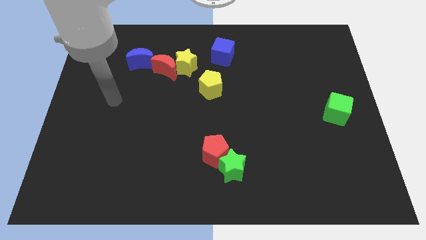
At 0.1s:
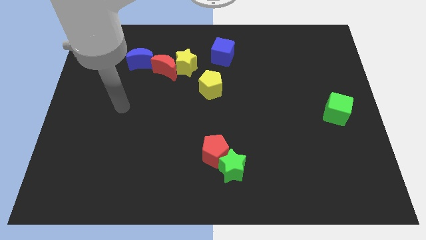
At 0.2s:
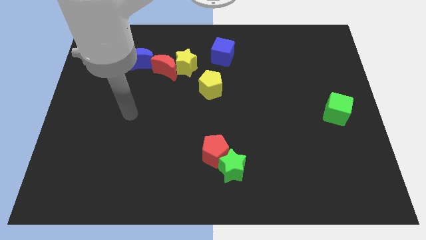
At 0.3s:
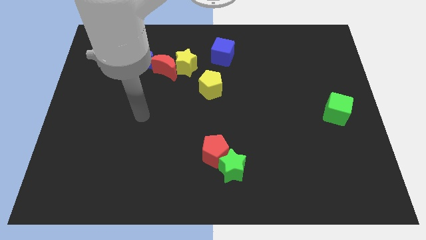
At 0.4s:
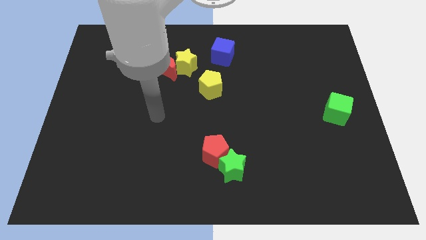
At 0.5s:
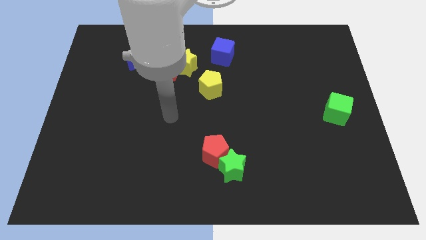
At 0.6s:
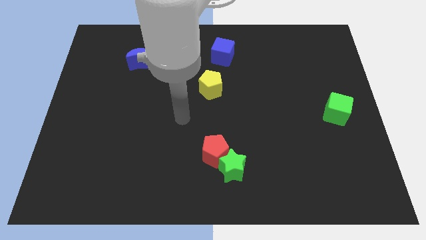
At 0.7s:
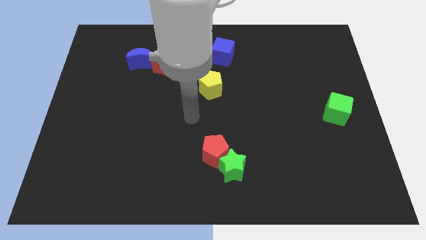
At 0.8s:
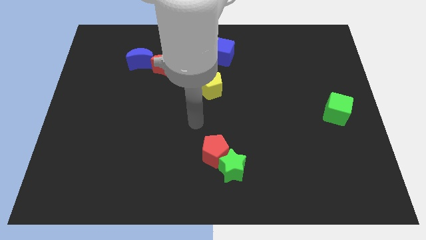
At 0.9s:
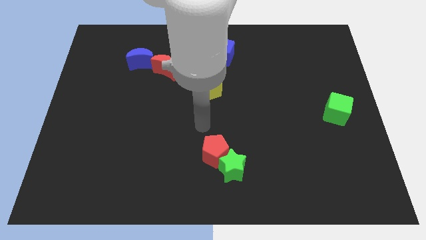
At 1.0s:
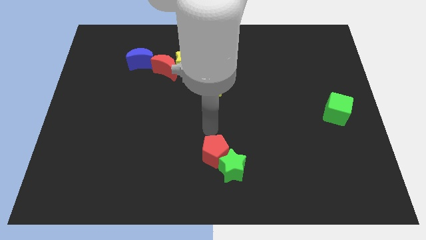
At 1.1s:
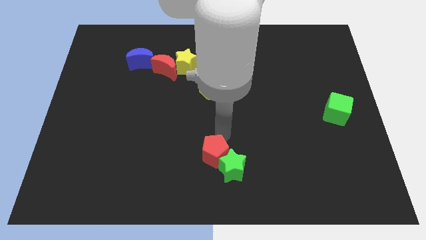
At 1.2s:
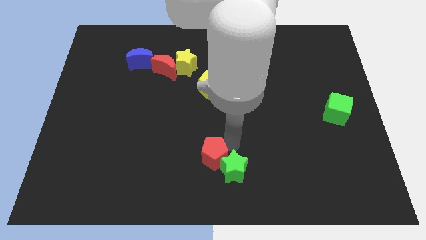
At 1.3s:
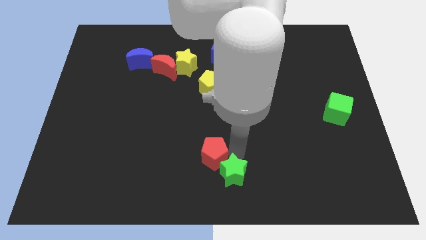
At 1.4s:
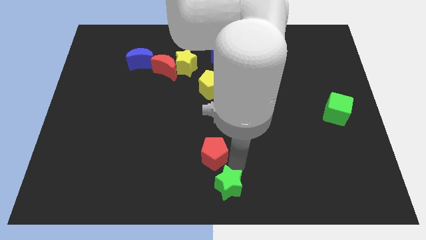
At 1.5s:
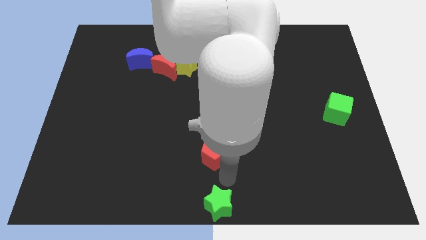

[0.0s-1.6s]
pull the red pentagon apart from the green star

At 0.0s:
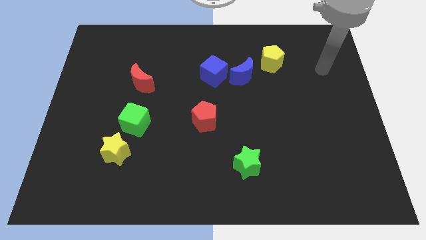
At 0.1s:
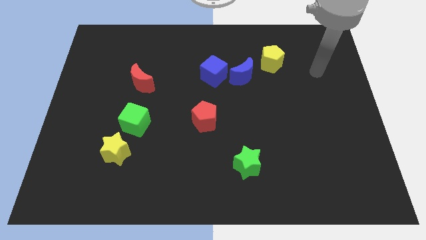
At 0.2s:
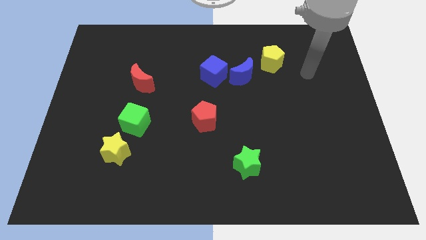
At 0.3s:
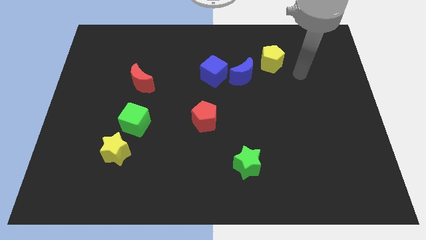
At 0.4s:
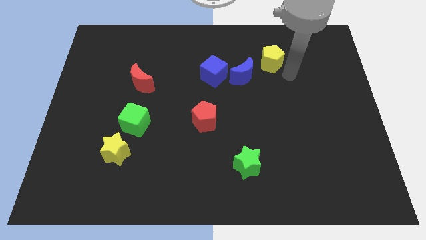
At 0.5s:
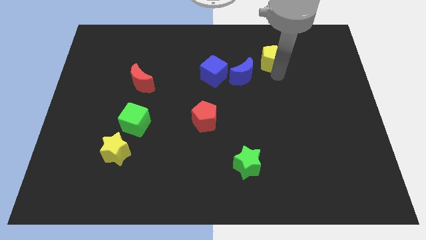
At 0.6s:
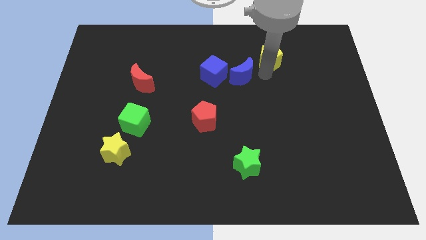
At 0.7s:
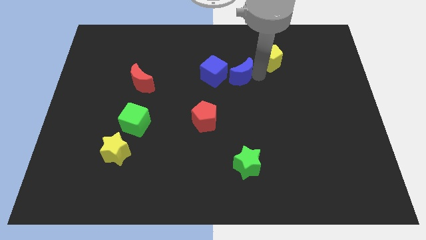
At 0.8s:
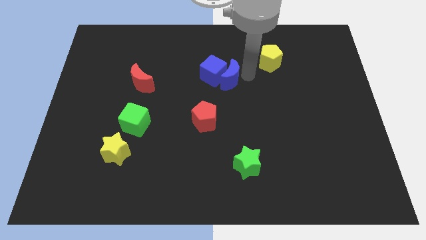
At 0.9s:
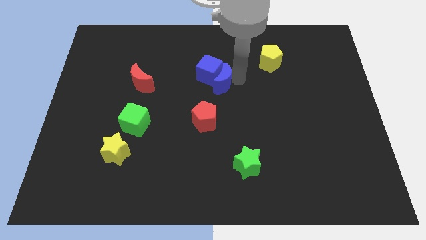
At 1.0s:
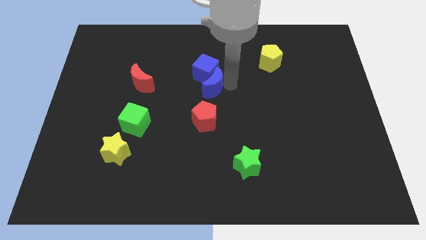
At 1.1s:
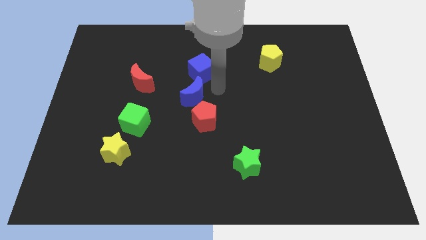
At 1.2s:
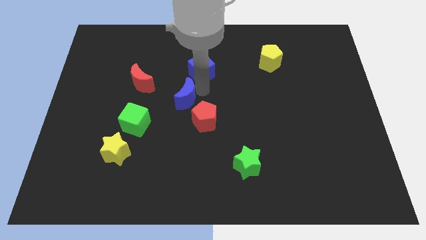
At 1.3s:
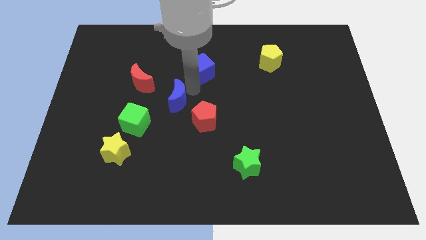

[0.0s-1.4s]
move the blue cube away from the blue moon

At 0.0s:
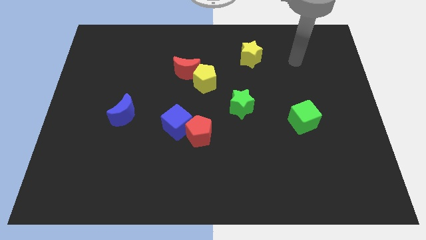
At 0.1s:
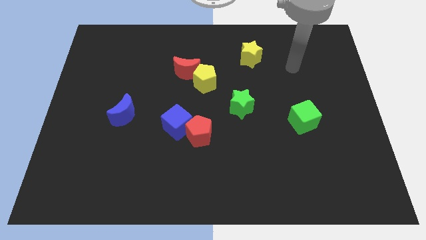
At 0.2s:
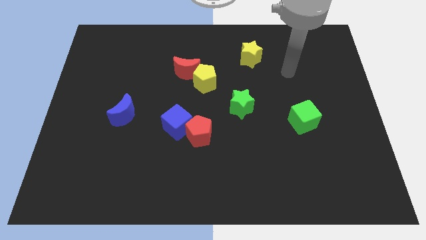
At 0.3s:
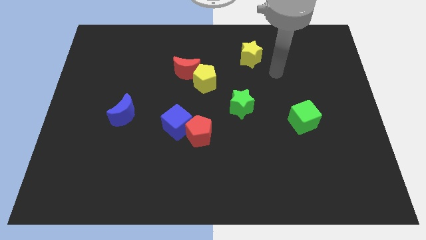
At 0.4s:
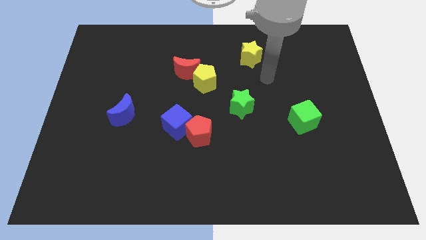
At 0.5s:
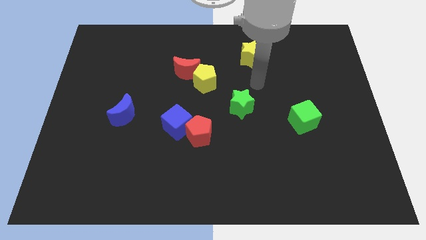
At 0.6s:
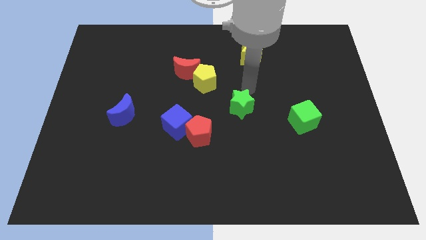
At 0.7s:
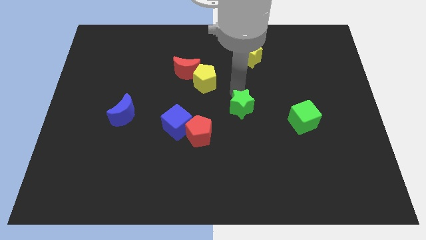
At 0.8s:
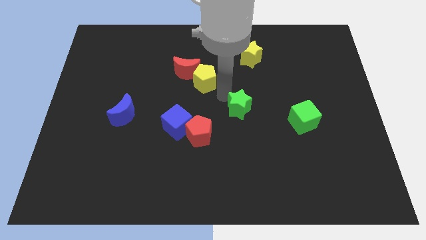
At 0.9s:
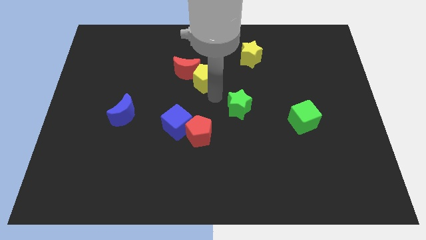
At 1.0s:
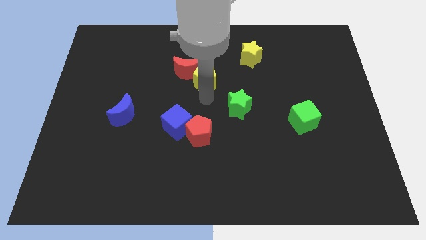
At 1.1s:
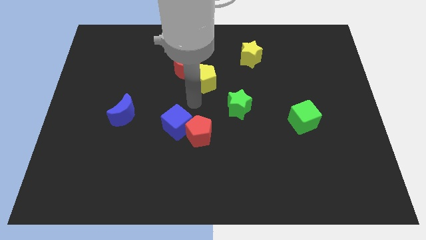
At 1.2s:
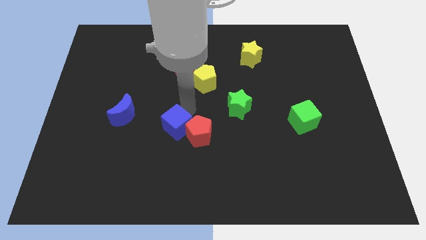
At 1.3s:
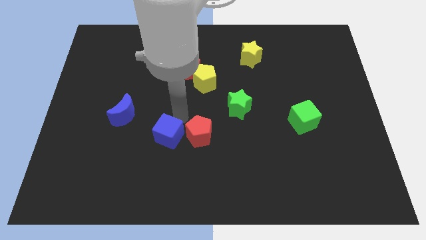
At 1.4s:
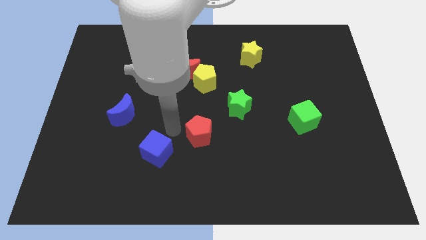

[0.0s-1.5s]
move the red pentagon away from the blue cube

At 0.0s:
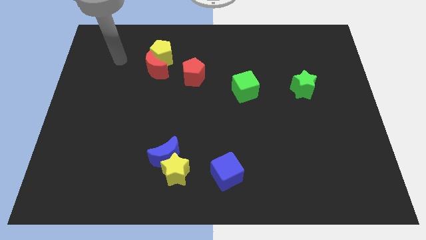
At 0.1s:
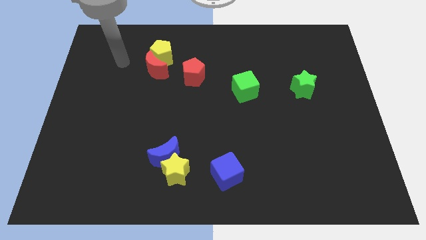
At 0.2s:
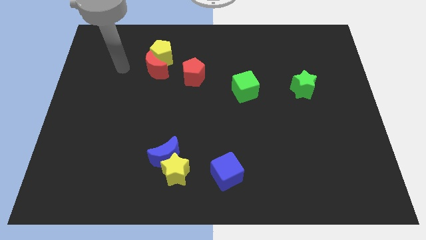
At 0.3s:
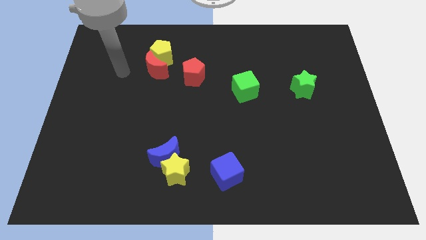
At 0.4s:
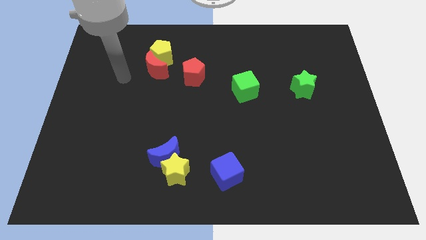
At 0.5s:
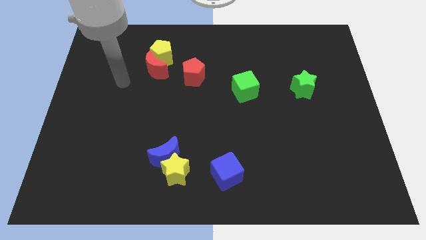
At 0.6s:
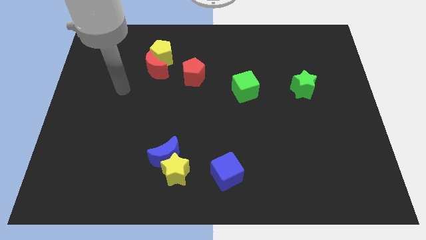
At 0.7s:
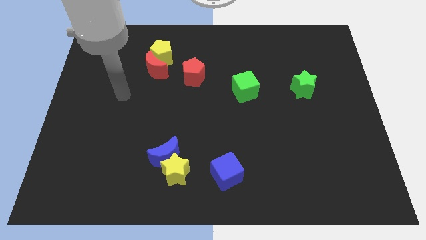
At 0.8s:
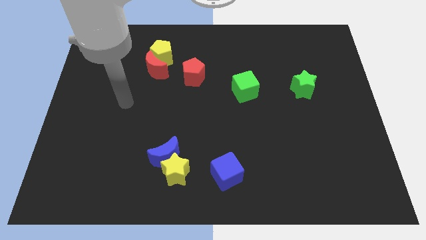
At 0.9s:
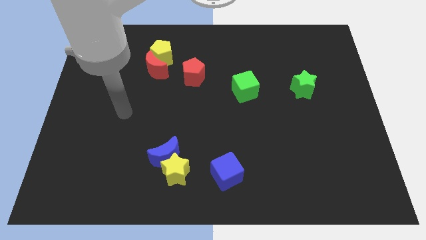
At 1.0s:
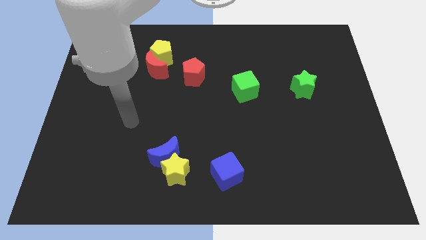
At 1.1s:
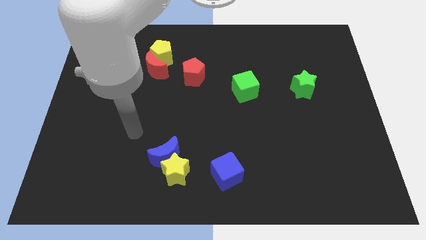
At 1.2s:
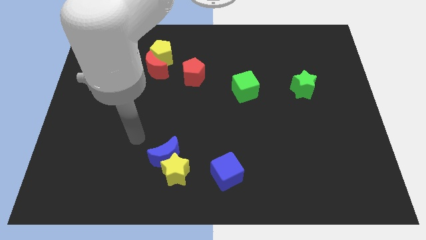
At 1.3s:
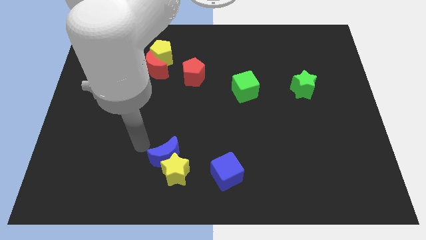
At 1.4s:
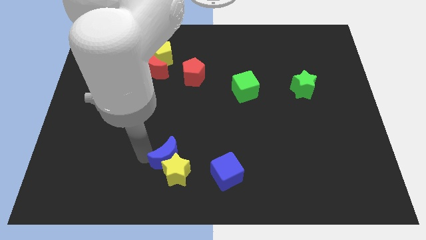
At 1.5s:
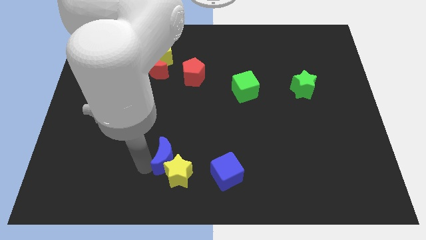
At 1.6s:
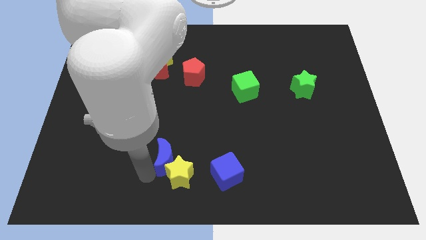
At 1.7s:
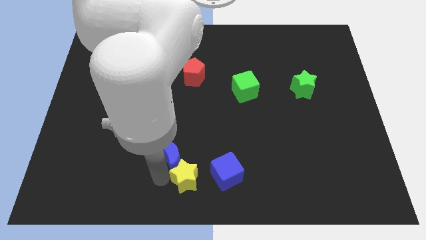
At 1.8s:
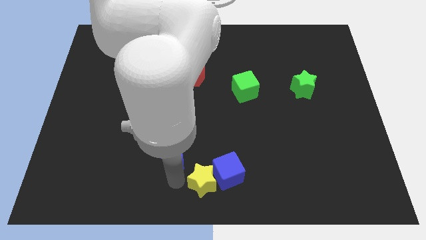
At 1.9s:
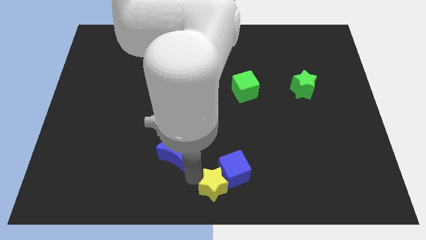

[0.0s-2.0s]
separate the blue moon from the yellow star

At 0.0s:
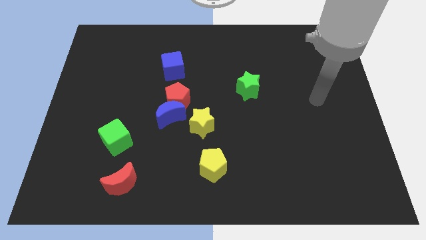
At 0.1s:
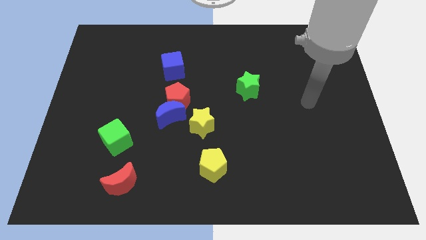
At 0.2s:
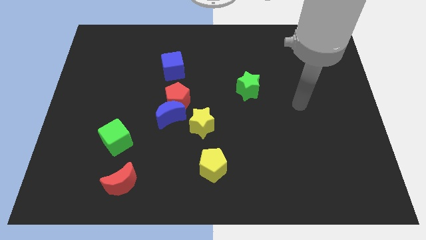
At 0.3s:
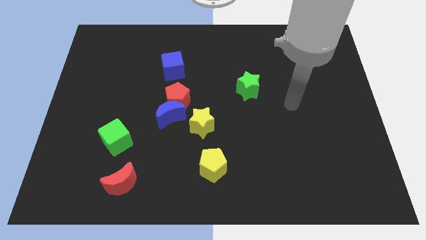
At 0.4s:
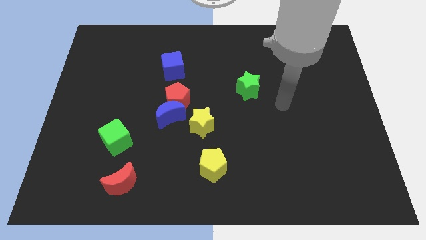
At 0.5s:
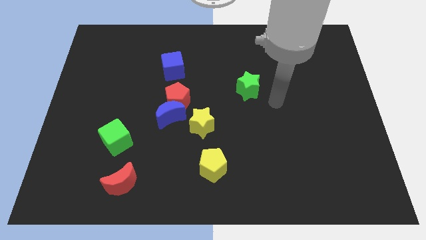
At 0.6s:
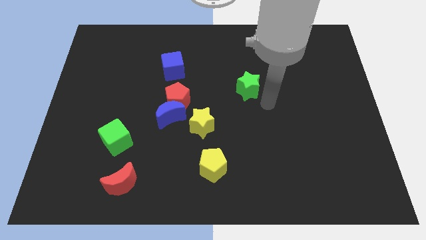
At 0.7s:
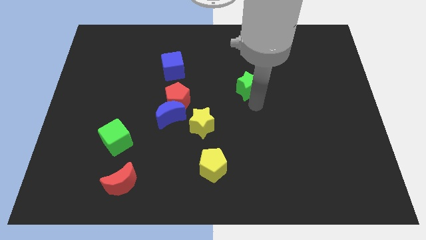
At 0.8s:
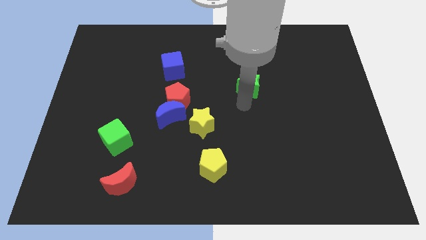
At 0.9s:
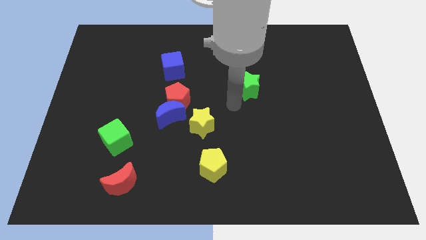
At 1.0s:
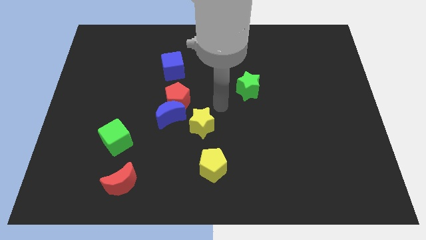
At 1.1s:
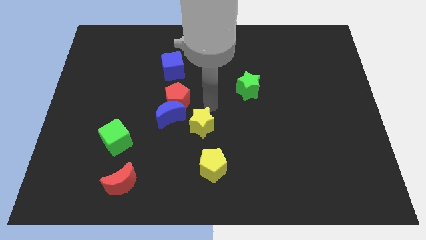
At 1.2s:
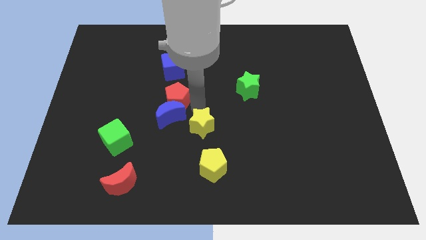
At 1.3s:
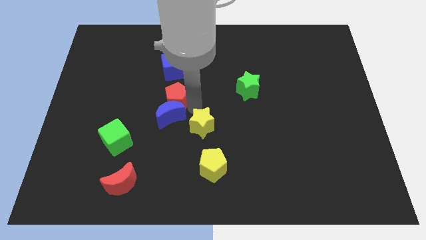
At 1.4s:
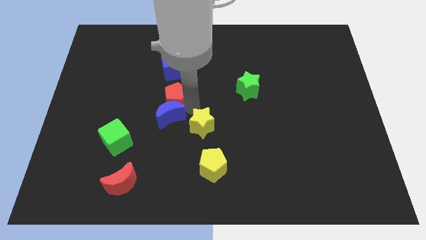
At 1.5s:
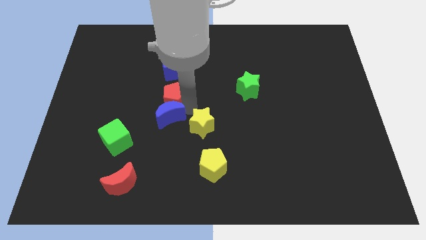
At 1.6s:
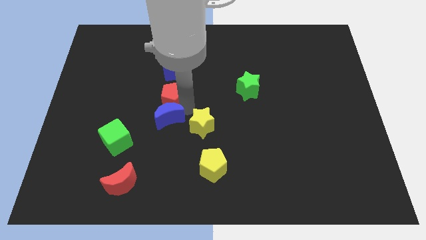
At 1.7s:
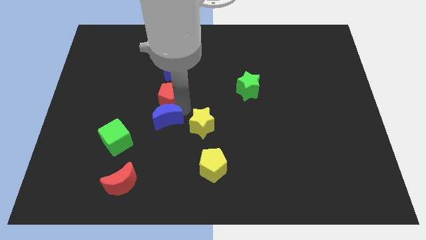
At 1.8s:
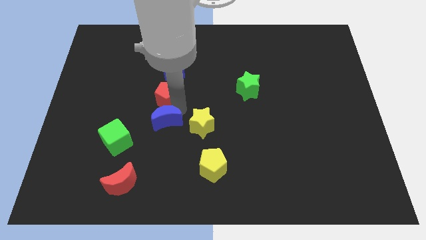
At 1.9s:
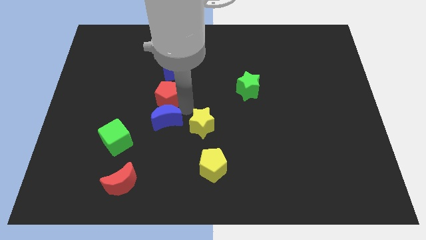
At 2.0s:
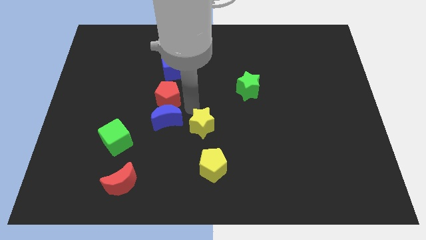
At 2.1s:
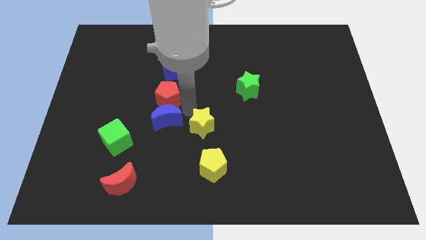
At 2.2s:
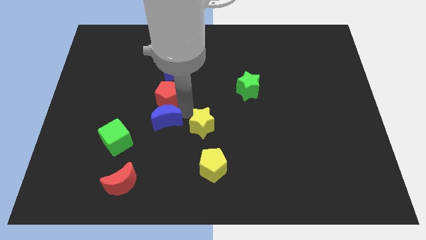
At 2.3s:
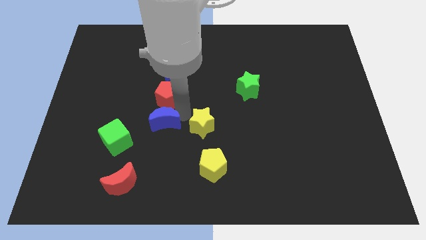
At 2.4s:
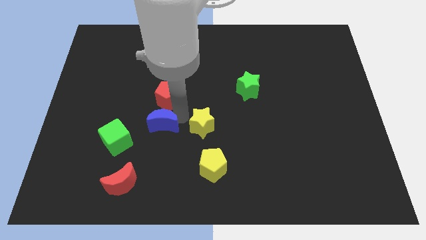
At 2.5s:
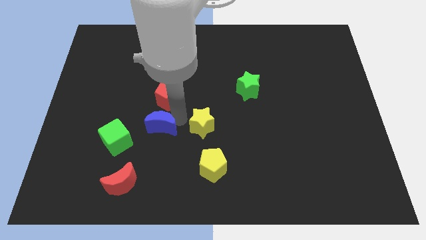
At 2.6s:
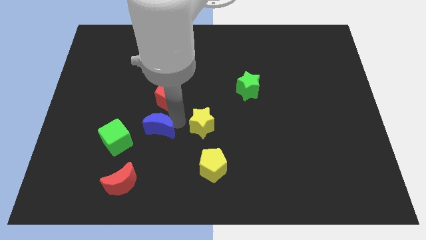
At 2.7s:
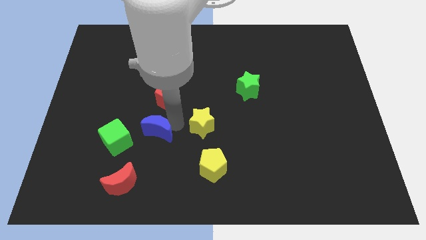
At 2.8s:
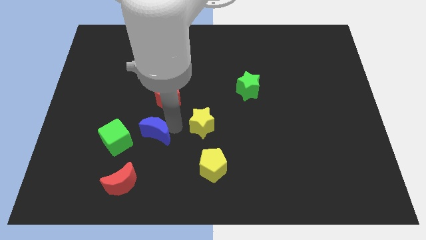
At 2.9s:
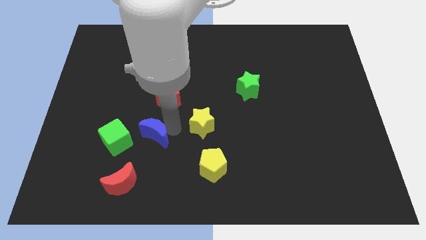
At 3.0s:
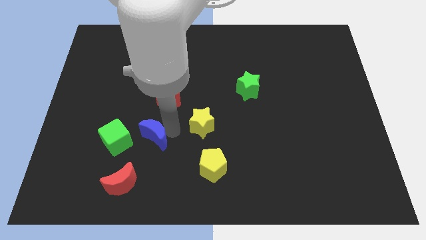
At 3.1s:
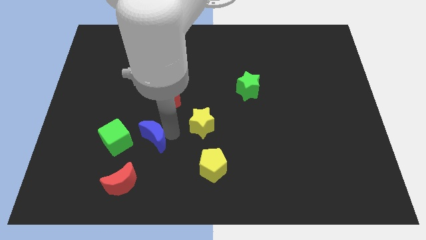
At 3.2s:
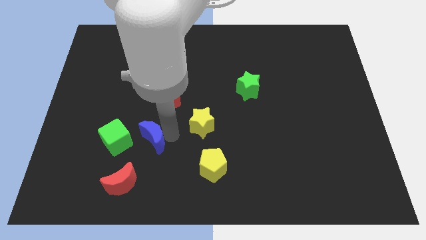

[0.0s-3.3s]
separate the blue moon from the red pentagon and yellow star
